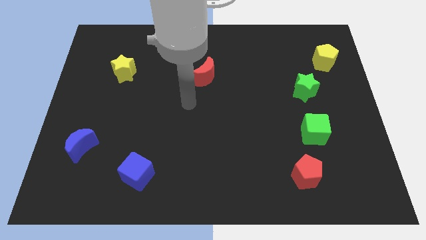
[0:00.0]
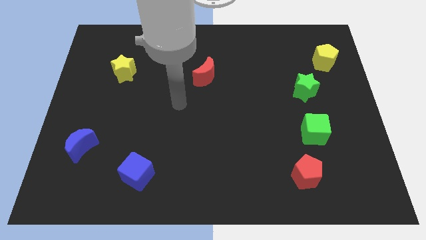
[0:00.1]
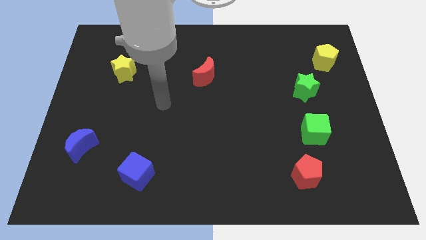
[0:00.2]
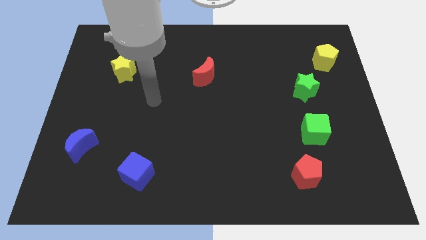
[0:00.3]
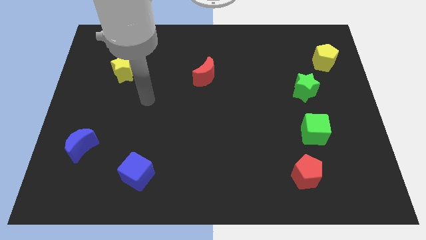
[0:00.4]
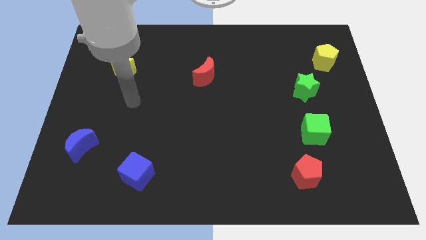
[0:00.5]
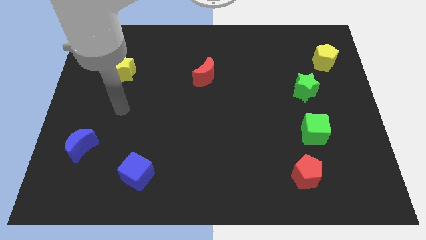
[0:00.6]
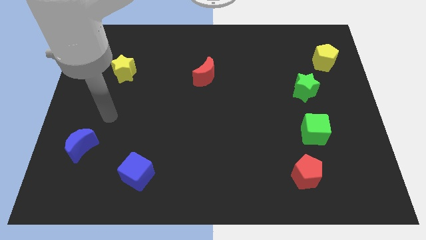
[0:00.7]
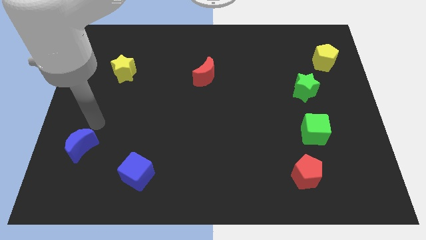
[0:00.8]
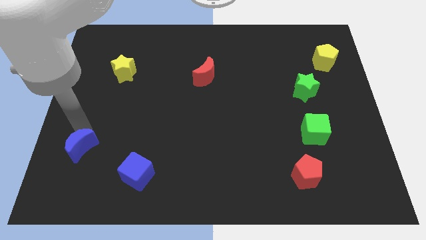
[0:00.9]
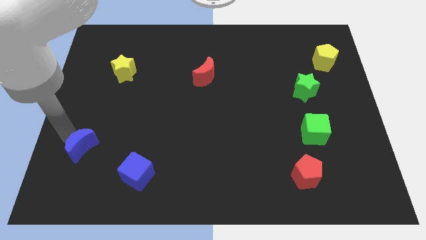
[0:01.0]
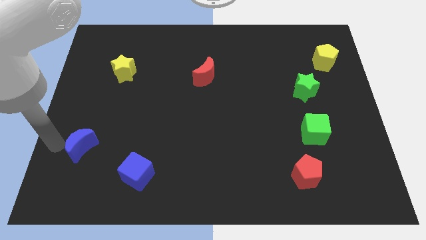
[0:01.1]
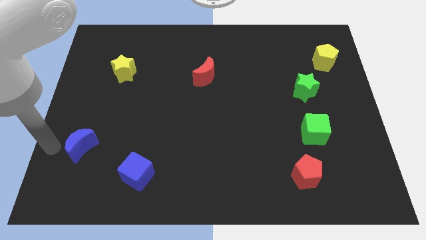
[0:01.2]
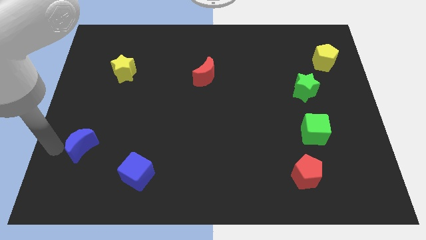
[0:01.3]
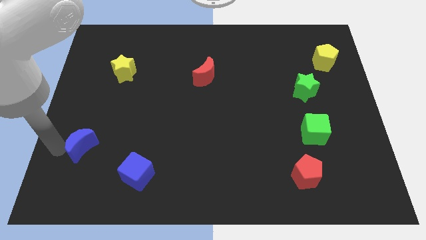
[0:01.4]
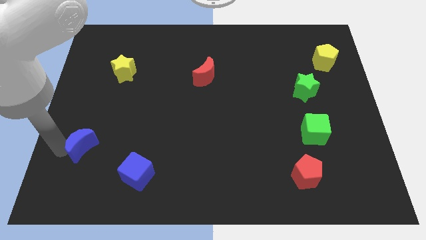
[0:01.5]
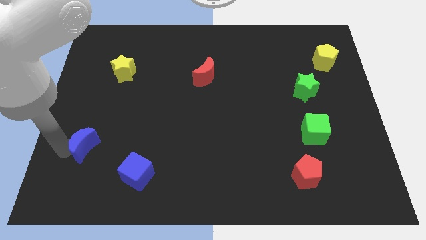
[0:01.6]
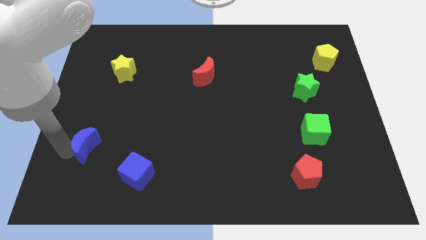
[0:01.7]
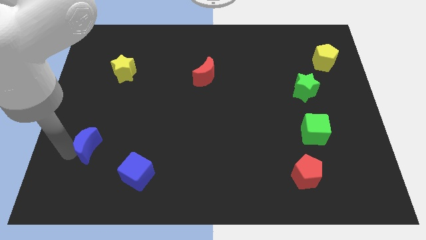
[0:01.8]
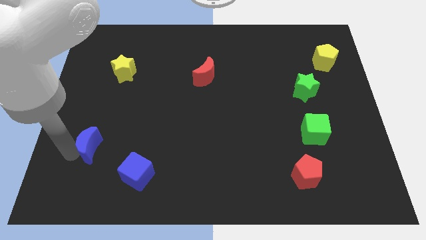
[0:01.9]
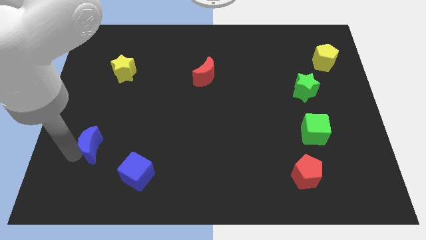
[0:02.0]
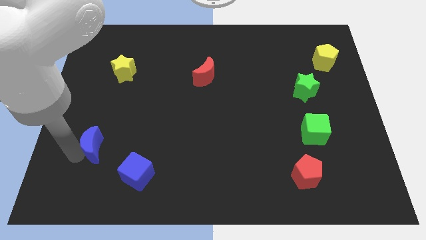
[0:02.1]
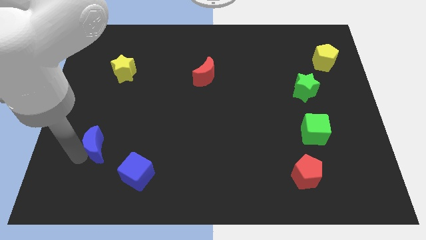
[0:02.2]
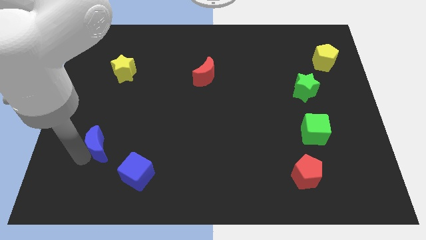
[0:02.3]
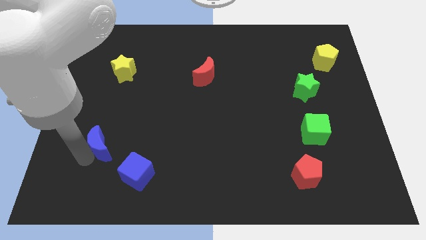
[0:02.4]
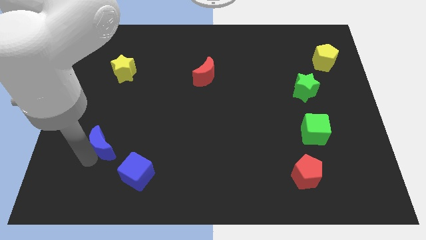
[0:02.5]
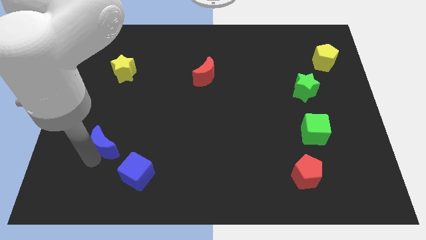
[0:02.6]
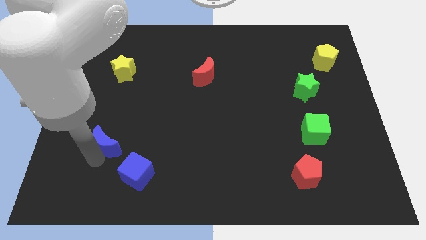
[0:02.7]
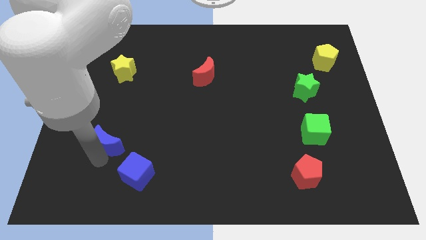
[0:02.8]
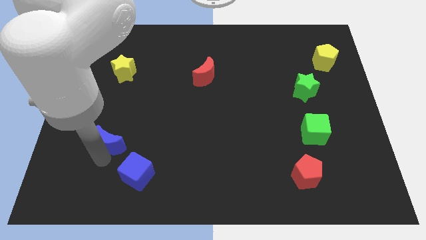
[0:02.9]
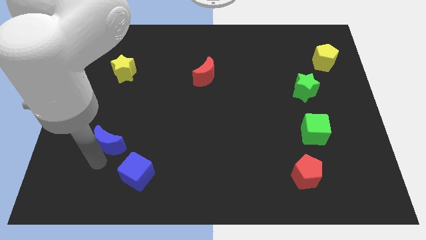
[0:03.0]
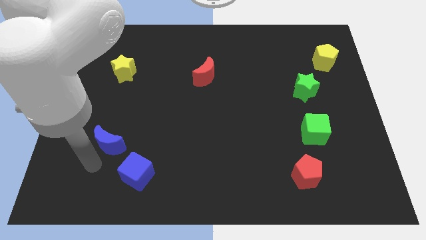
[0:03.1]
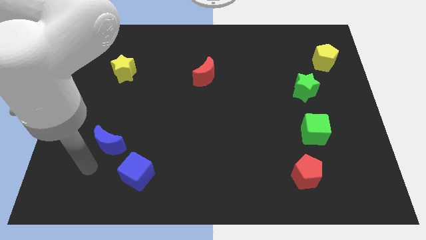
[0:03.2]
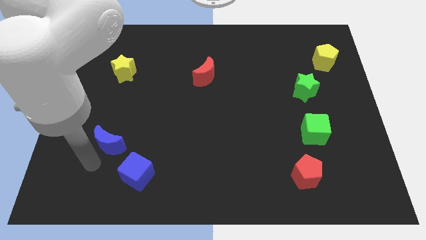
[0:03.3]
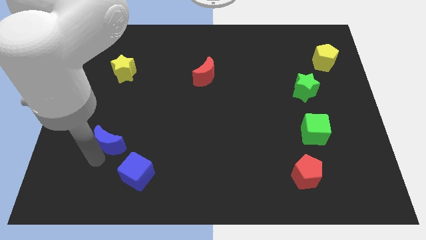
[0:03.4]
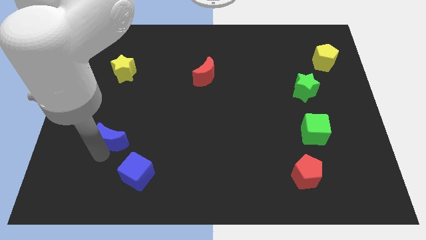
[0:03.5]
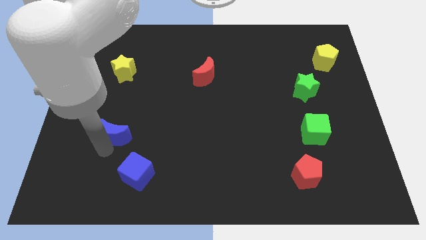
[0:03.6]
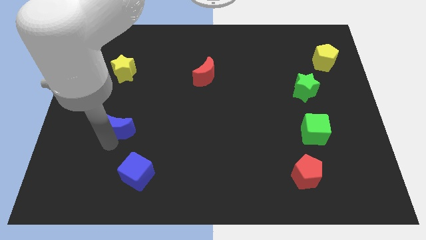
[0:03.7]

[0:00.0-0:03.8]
slightly slide the blue moon upwards and right diagonally

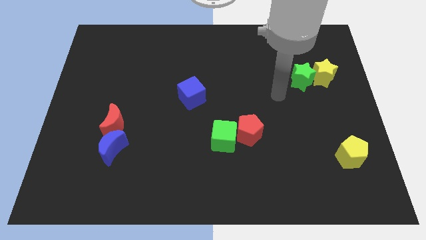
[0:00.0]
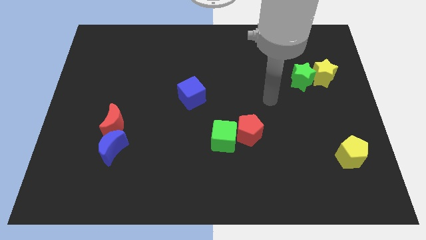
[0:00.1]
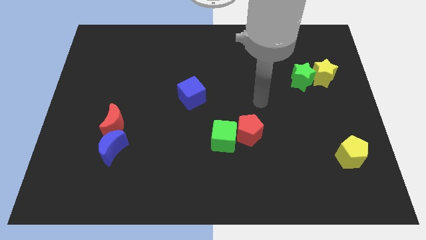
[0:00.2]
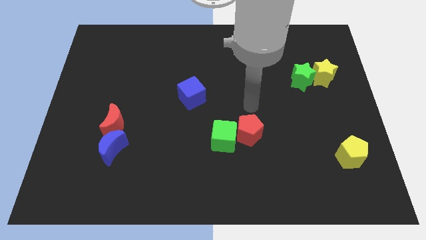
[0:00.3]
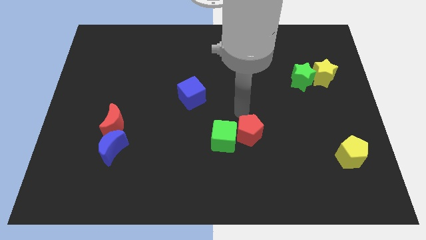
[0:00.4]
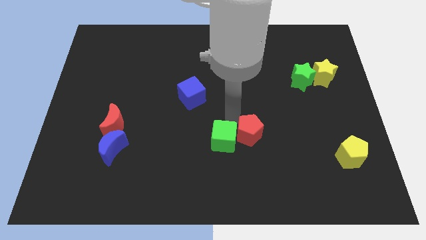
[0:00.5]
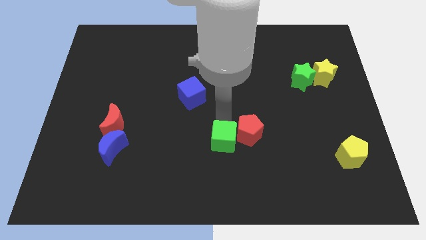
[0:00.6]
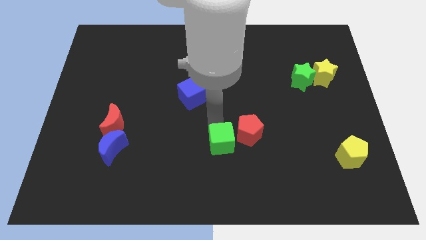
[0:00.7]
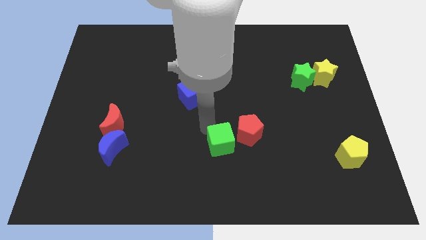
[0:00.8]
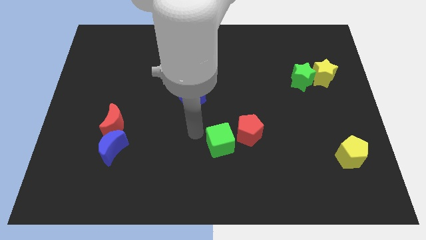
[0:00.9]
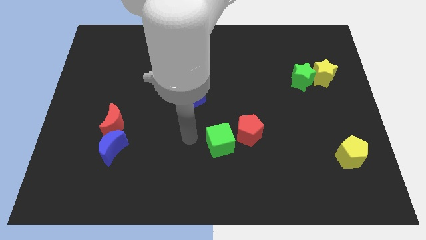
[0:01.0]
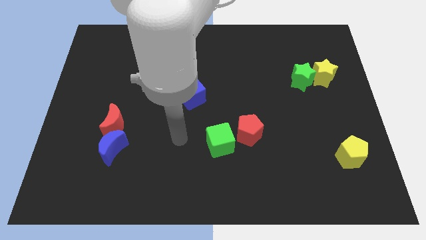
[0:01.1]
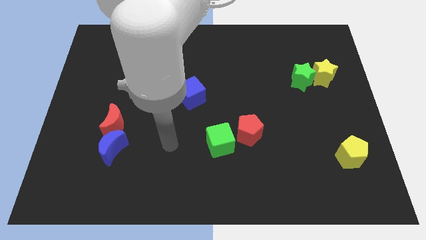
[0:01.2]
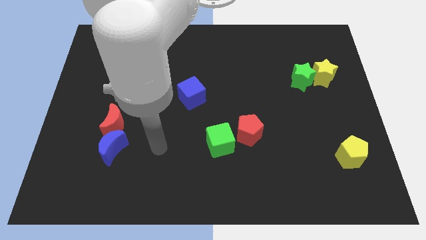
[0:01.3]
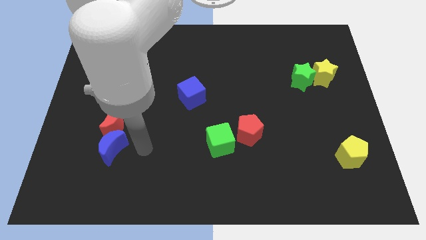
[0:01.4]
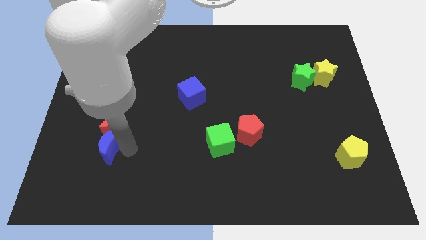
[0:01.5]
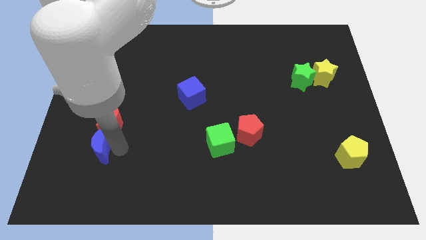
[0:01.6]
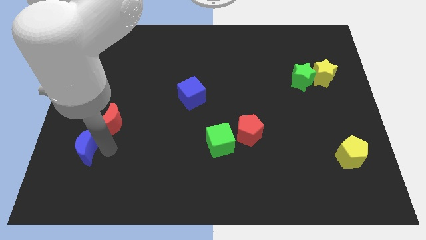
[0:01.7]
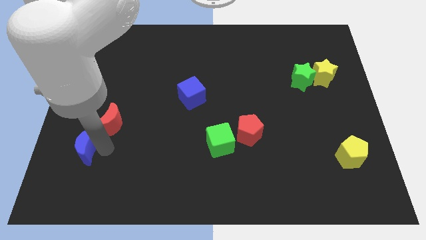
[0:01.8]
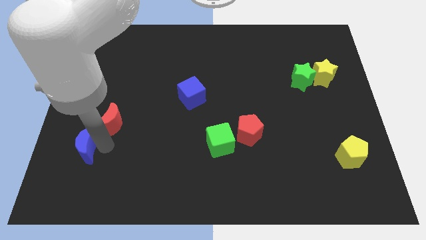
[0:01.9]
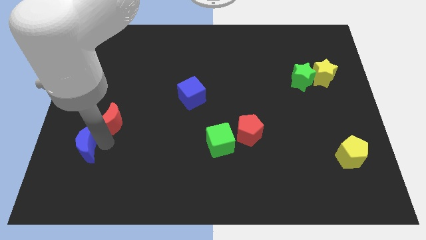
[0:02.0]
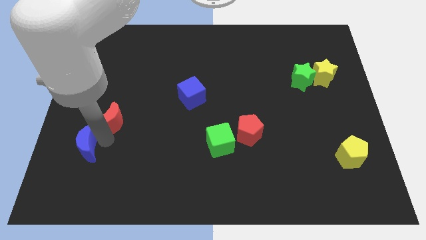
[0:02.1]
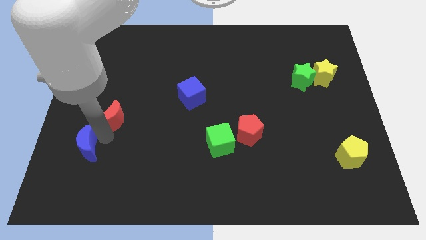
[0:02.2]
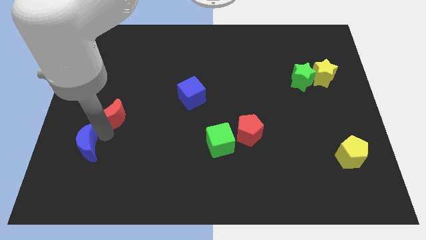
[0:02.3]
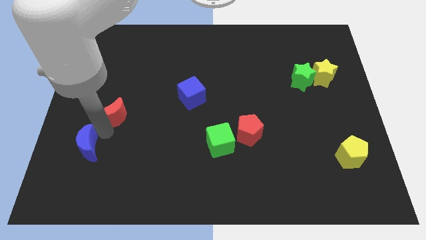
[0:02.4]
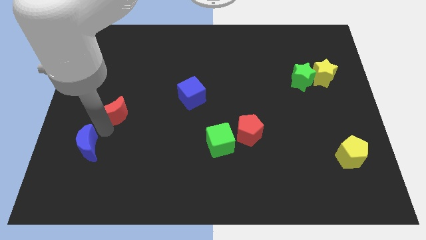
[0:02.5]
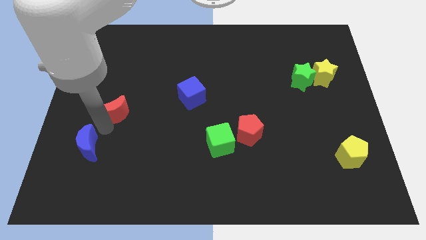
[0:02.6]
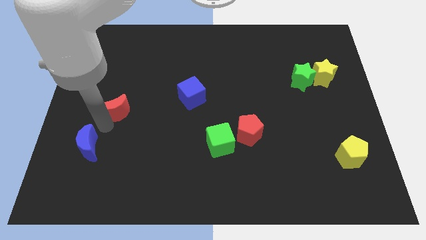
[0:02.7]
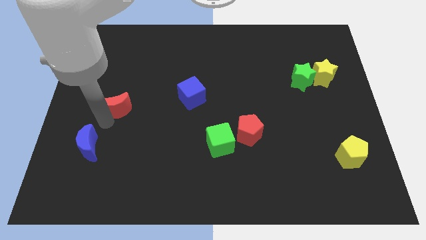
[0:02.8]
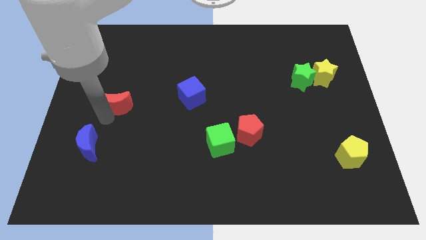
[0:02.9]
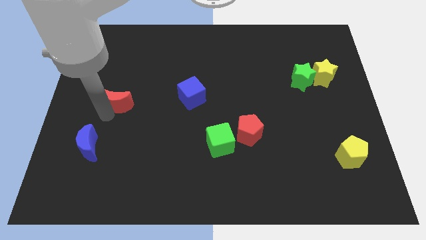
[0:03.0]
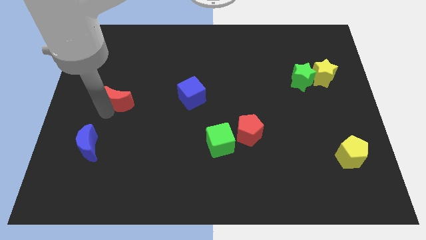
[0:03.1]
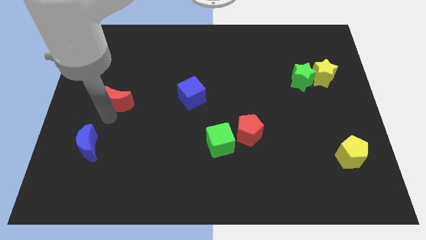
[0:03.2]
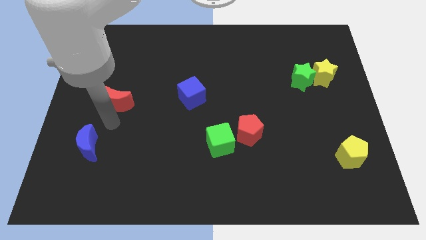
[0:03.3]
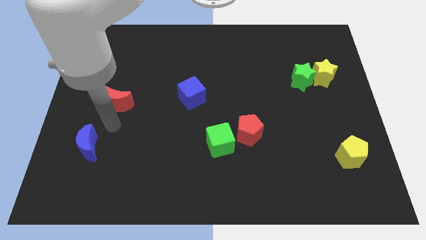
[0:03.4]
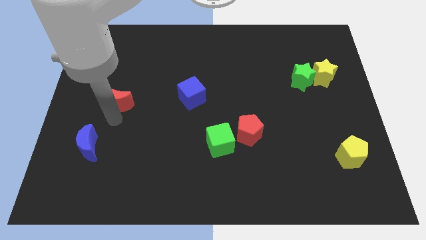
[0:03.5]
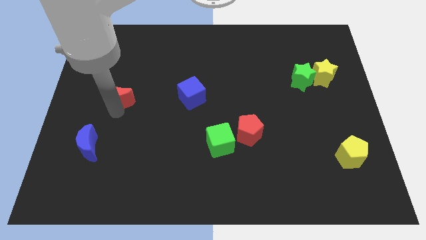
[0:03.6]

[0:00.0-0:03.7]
slightly move the red moon up

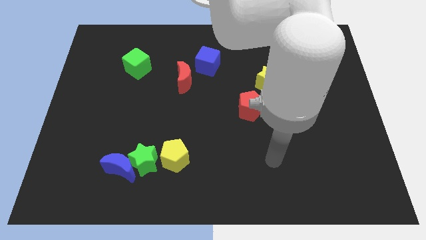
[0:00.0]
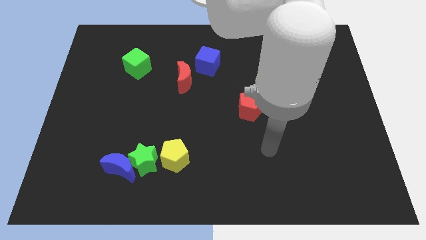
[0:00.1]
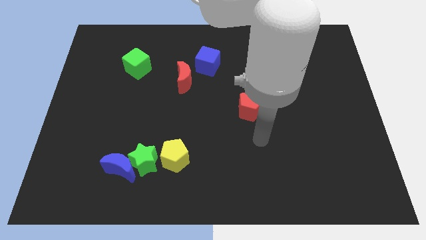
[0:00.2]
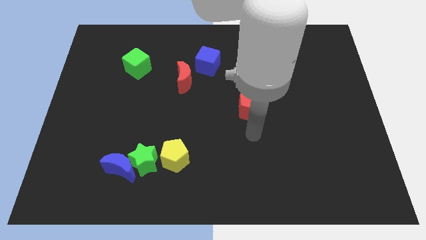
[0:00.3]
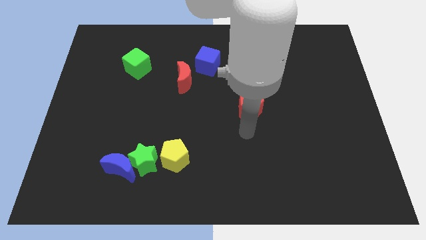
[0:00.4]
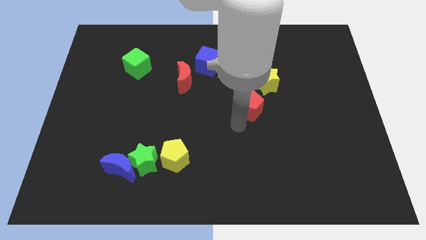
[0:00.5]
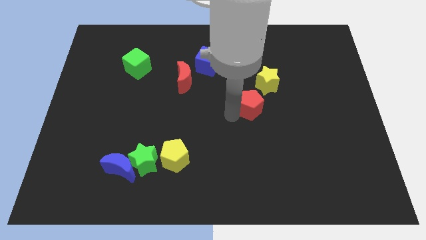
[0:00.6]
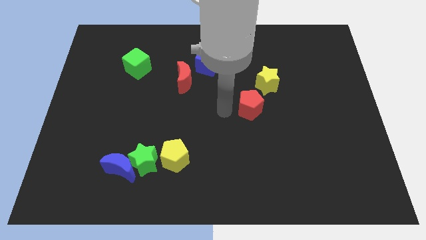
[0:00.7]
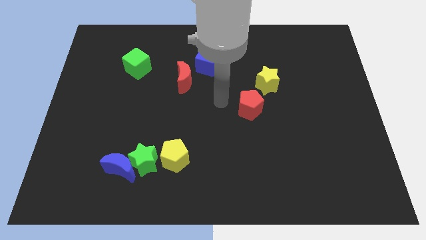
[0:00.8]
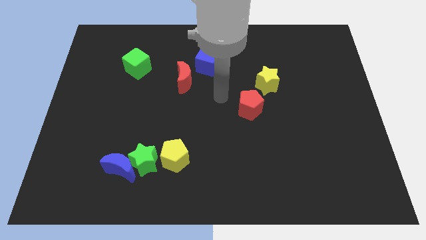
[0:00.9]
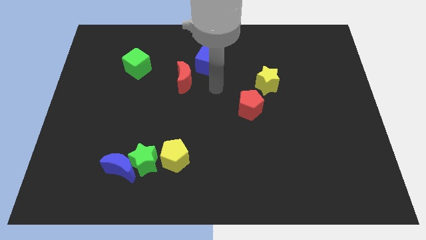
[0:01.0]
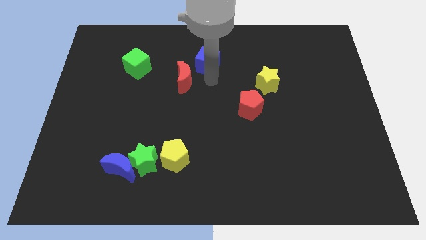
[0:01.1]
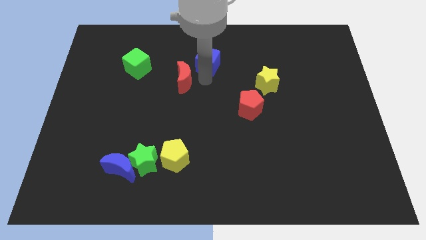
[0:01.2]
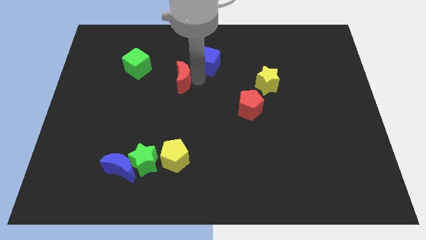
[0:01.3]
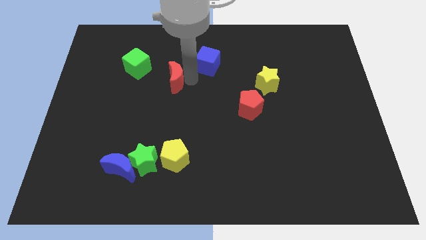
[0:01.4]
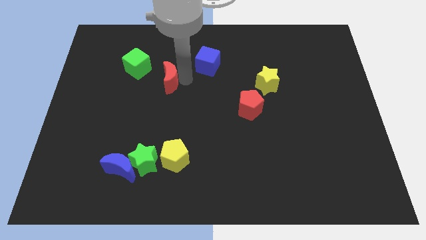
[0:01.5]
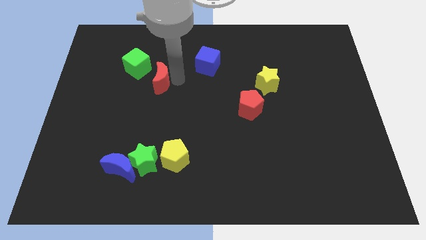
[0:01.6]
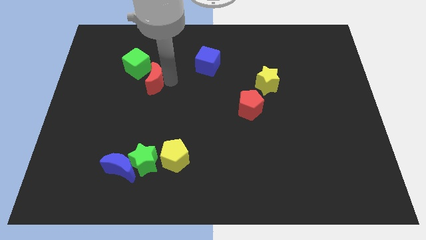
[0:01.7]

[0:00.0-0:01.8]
slightly push the red moon to the left
